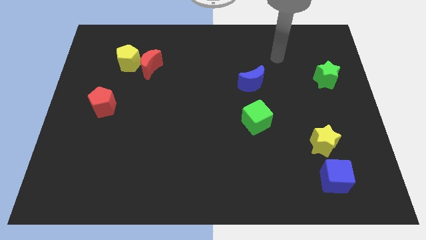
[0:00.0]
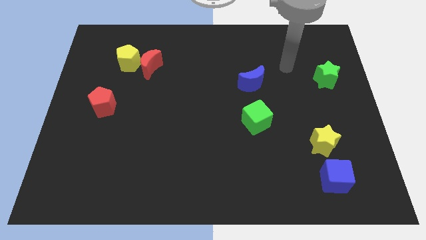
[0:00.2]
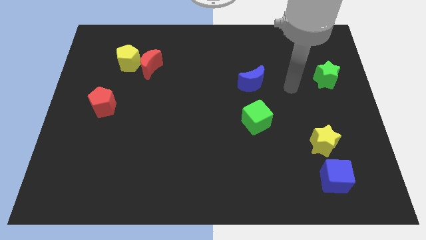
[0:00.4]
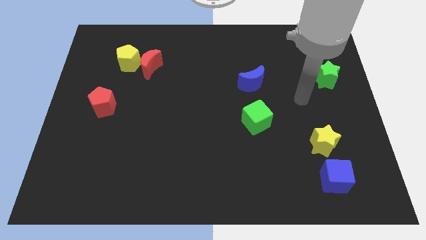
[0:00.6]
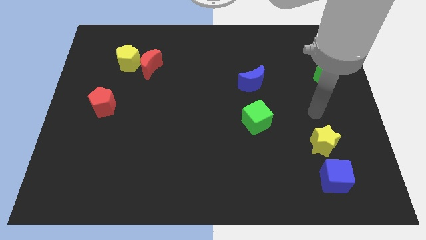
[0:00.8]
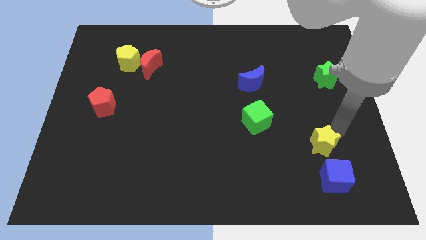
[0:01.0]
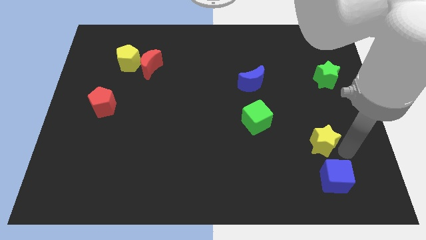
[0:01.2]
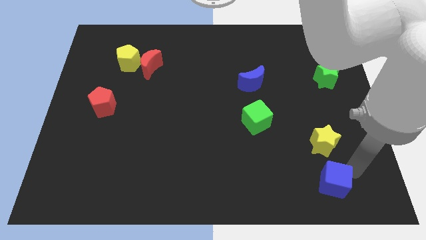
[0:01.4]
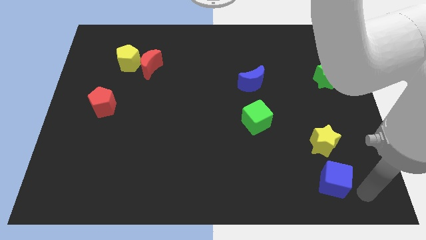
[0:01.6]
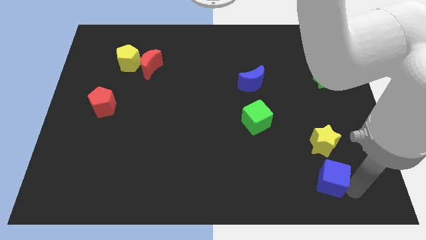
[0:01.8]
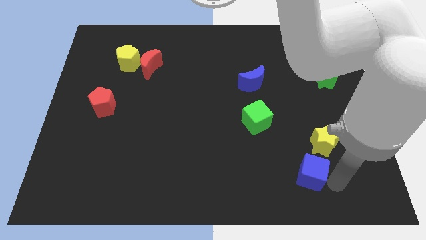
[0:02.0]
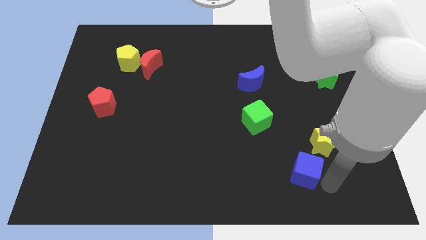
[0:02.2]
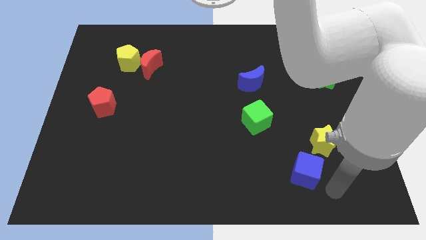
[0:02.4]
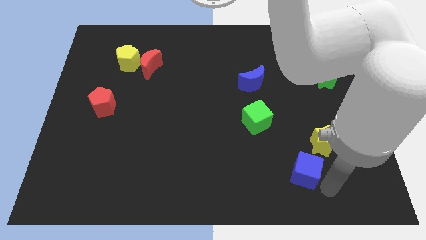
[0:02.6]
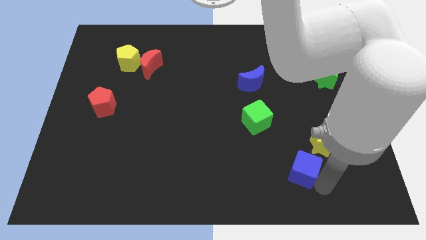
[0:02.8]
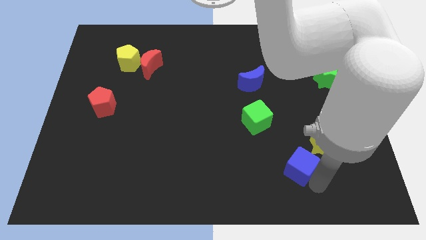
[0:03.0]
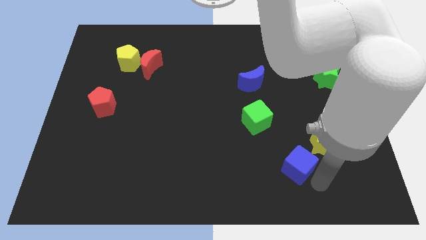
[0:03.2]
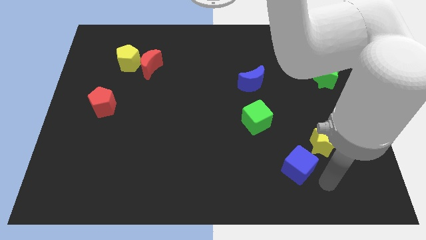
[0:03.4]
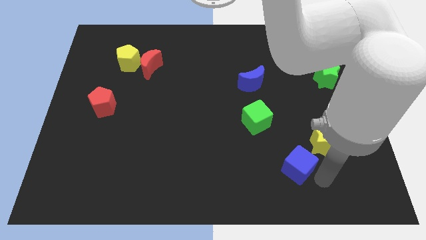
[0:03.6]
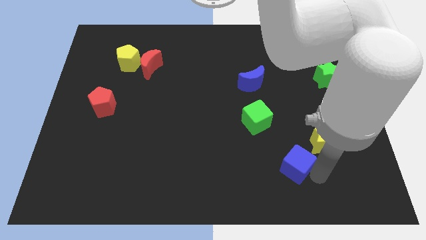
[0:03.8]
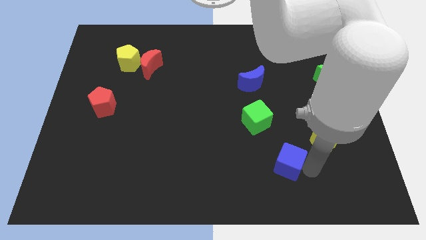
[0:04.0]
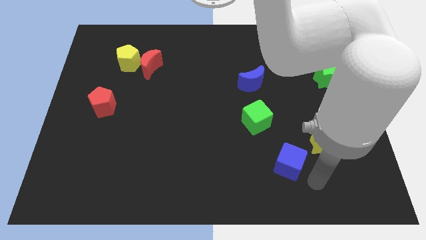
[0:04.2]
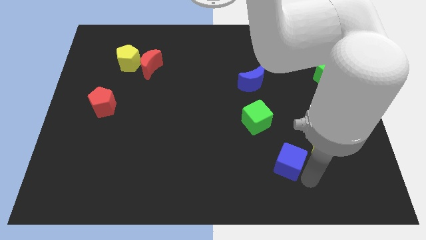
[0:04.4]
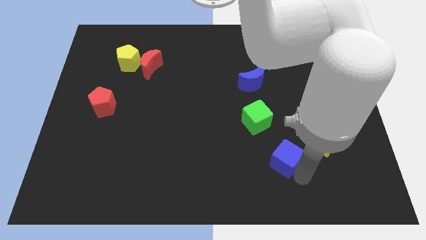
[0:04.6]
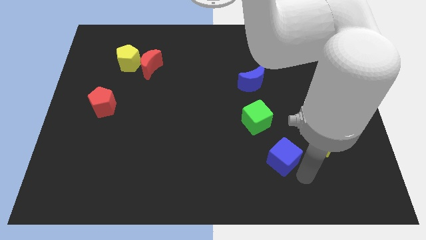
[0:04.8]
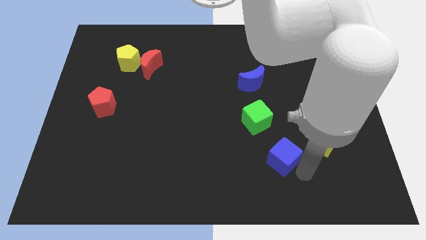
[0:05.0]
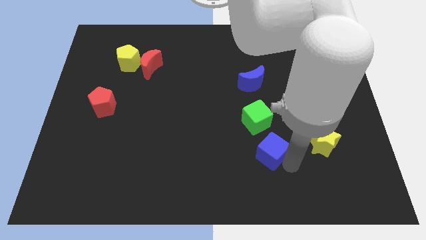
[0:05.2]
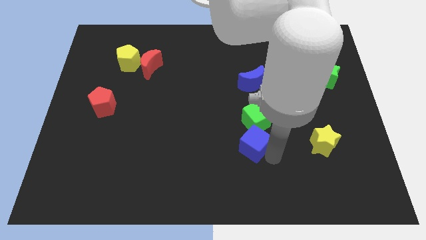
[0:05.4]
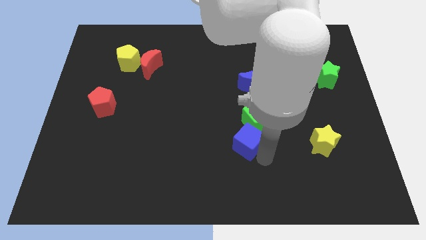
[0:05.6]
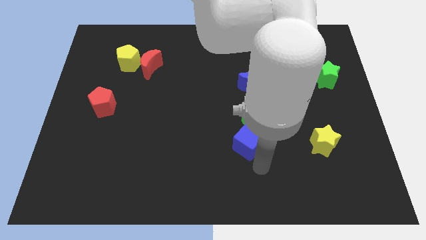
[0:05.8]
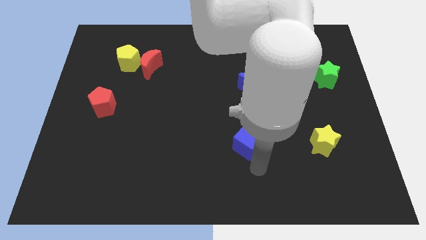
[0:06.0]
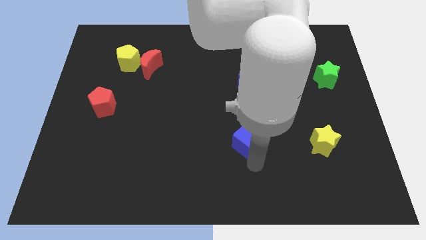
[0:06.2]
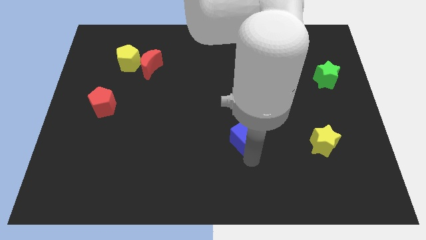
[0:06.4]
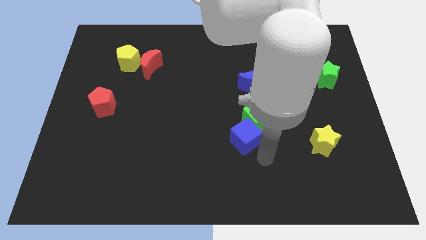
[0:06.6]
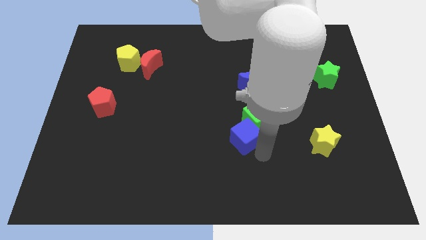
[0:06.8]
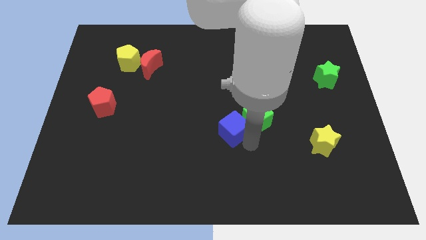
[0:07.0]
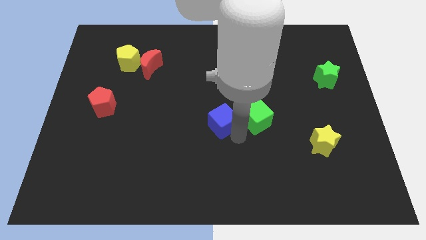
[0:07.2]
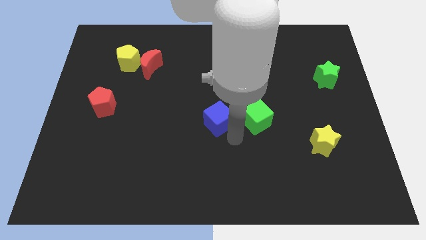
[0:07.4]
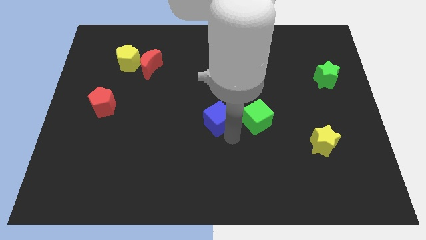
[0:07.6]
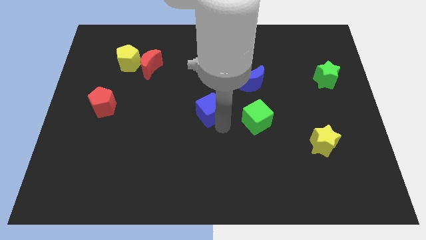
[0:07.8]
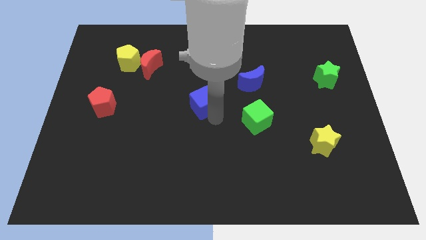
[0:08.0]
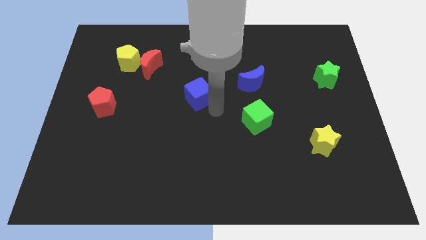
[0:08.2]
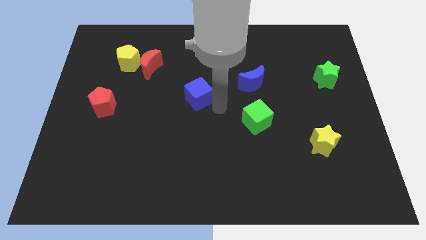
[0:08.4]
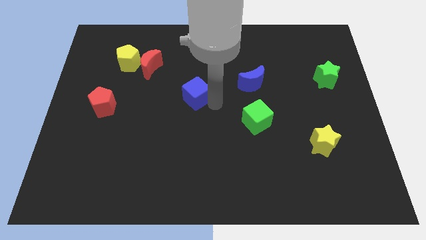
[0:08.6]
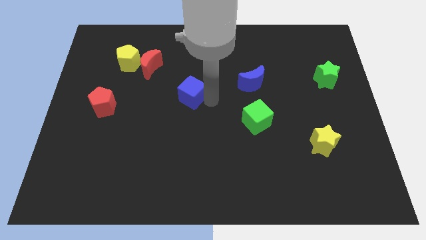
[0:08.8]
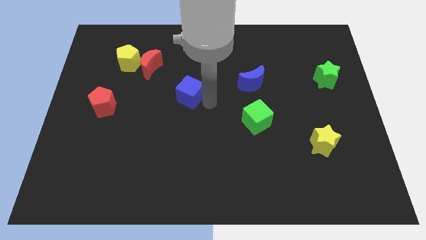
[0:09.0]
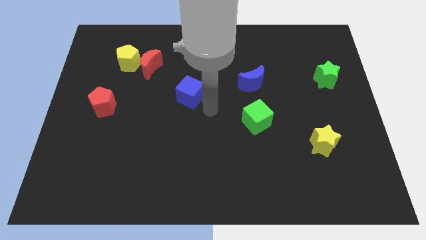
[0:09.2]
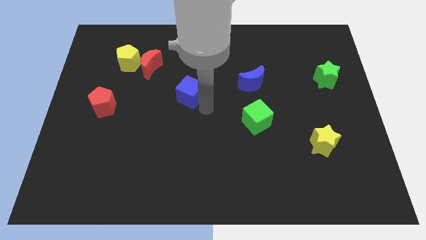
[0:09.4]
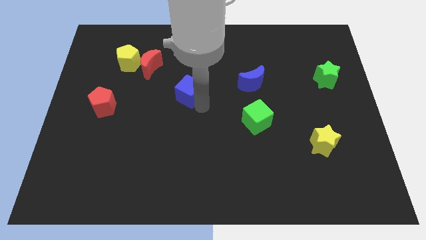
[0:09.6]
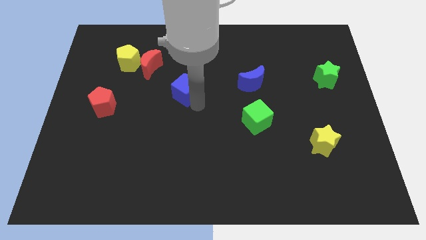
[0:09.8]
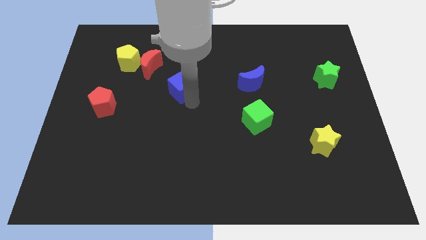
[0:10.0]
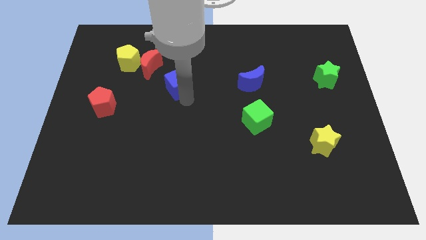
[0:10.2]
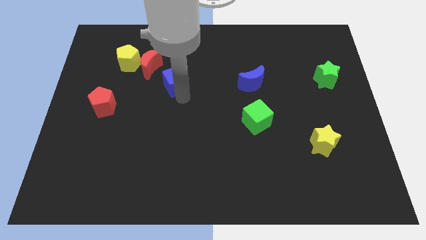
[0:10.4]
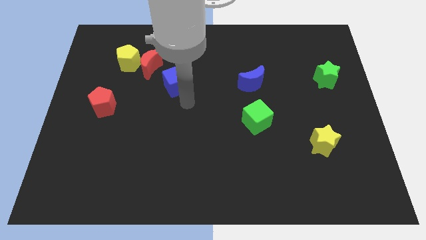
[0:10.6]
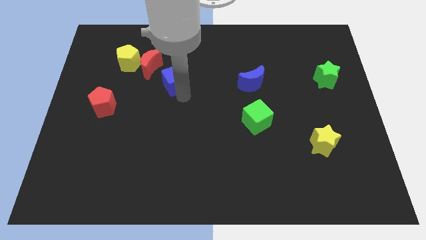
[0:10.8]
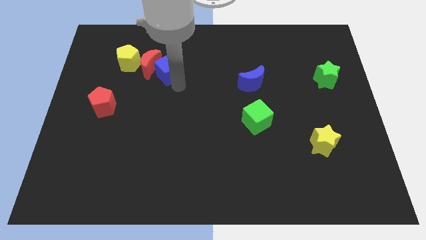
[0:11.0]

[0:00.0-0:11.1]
move the blue cube next to the red moon

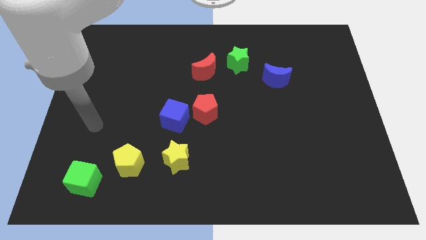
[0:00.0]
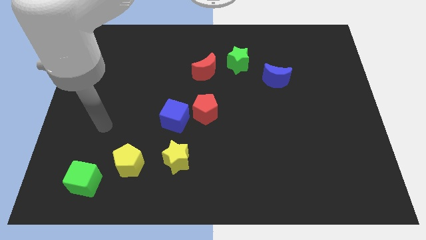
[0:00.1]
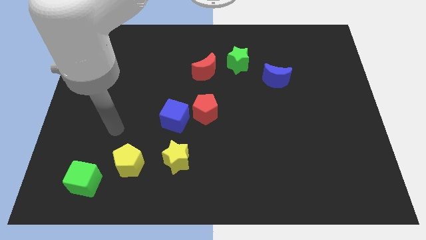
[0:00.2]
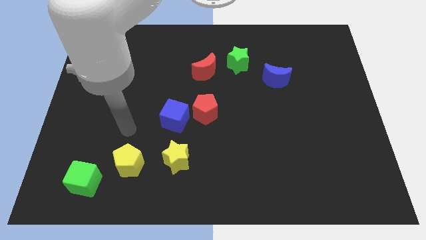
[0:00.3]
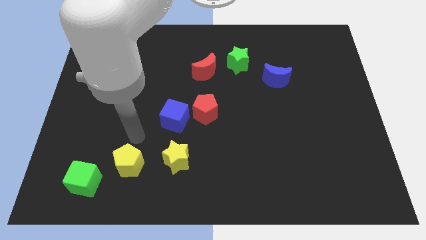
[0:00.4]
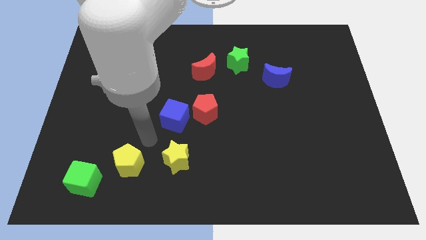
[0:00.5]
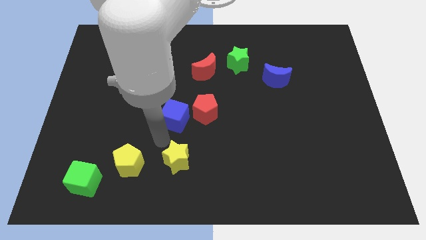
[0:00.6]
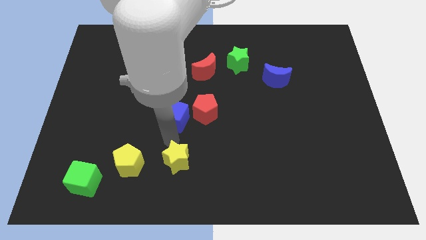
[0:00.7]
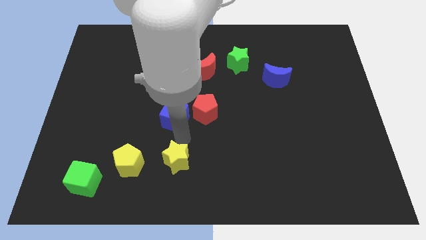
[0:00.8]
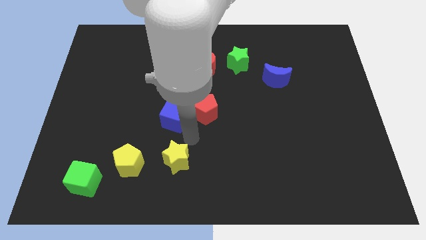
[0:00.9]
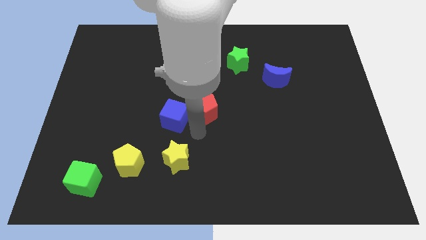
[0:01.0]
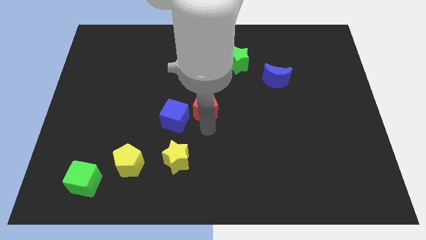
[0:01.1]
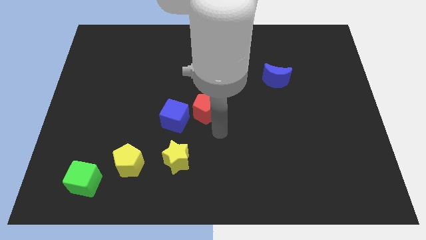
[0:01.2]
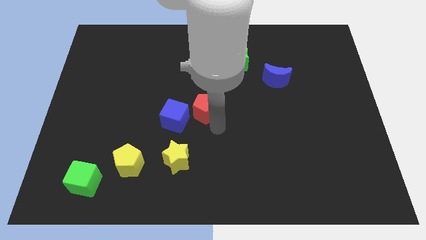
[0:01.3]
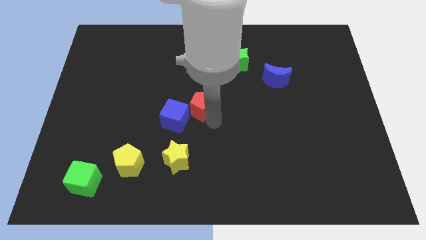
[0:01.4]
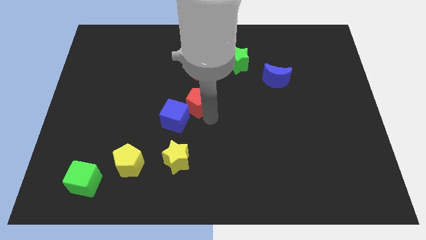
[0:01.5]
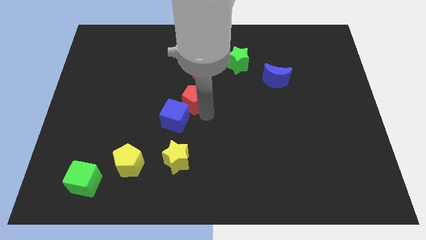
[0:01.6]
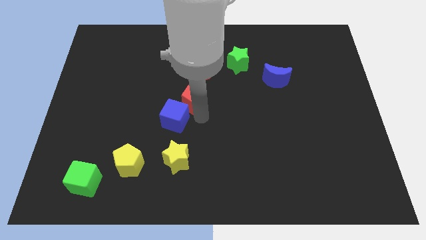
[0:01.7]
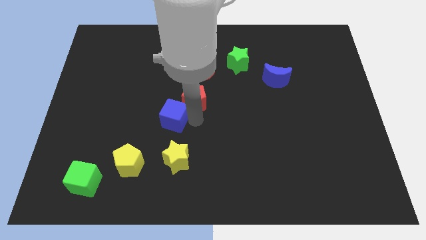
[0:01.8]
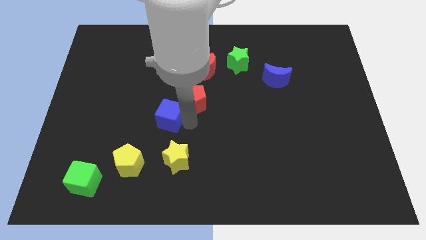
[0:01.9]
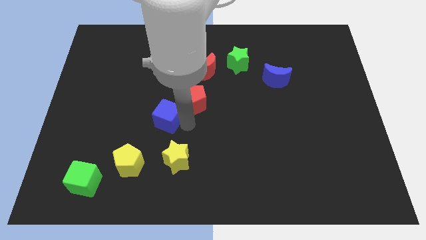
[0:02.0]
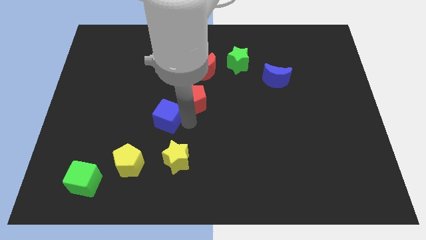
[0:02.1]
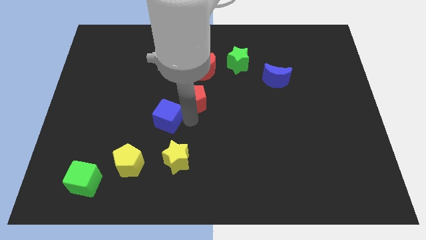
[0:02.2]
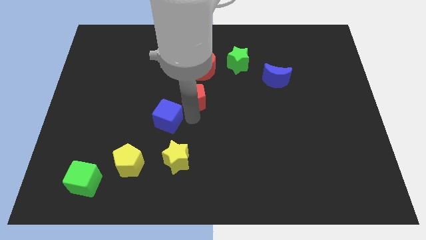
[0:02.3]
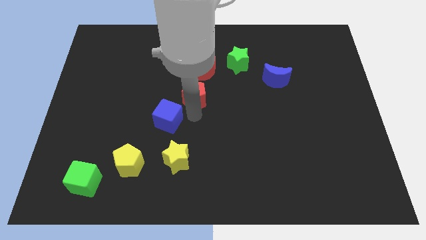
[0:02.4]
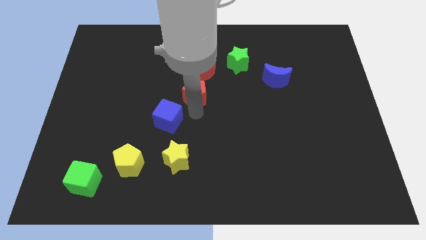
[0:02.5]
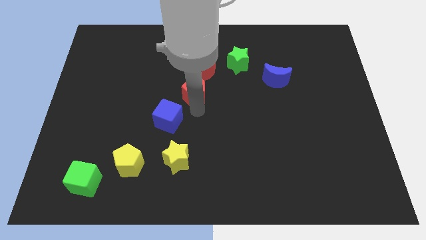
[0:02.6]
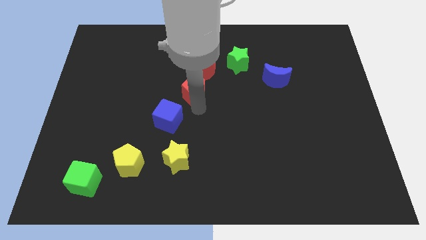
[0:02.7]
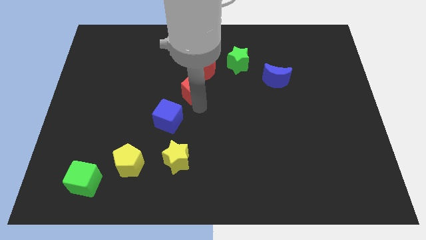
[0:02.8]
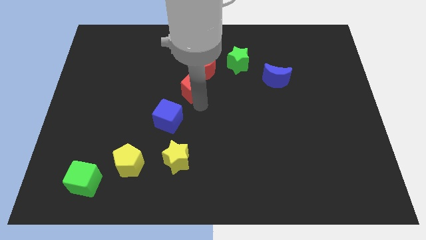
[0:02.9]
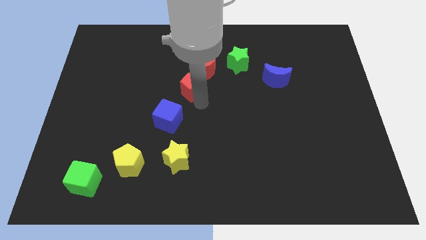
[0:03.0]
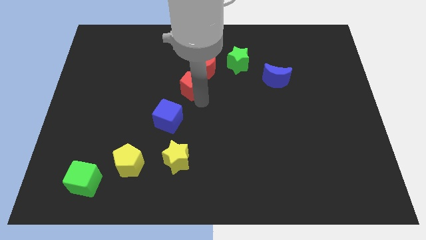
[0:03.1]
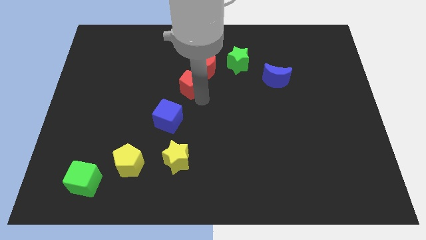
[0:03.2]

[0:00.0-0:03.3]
push the red pentagon towards the red moon
